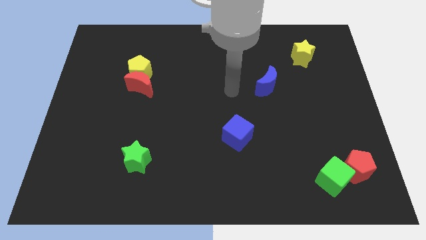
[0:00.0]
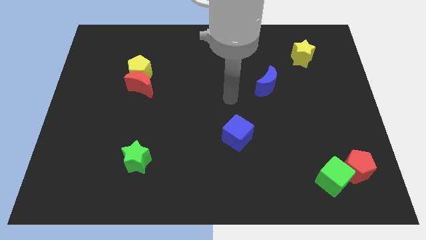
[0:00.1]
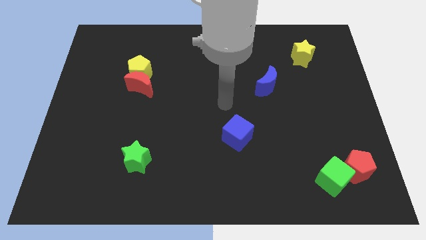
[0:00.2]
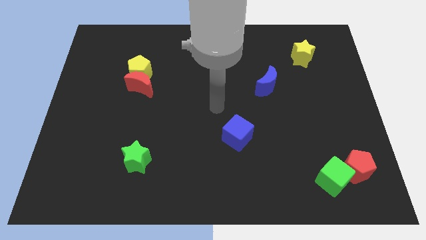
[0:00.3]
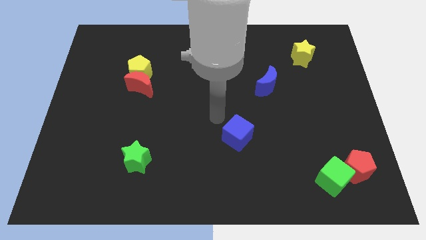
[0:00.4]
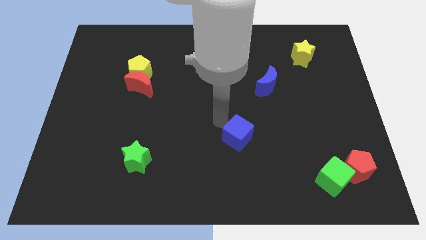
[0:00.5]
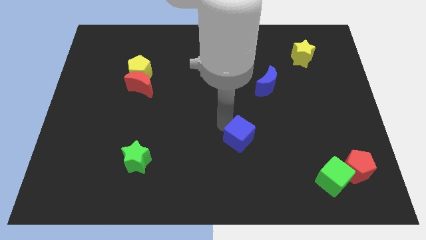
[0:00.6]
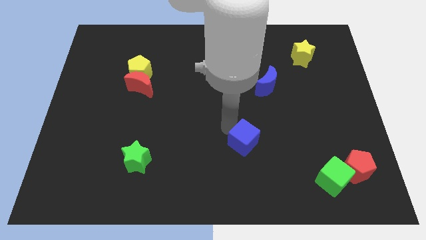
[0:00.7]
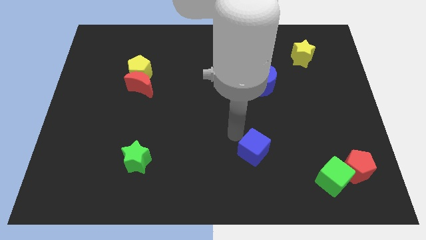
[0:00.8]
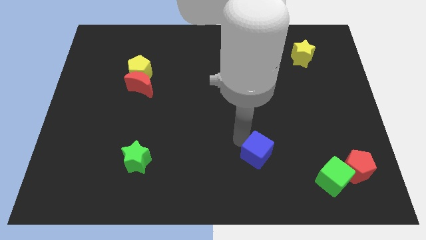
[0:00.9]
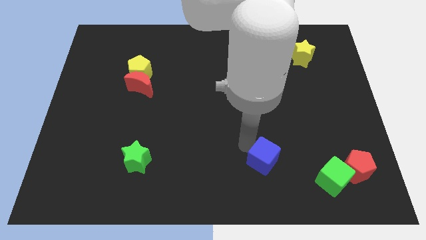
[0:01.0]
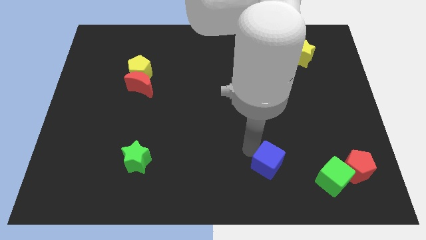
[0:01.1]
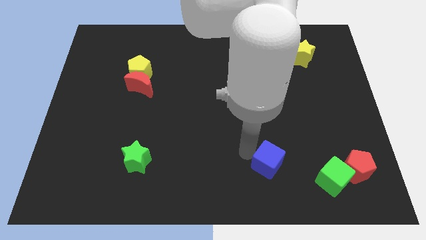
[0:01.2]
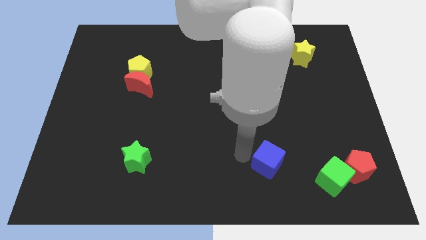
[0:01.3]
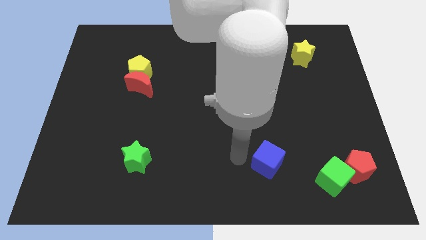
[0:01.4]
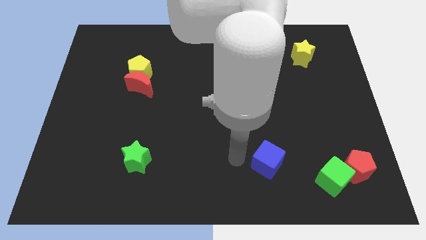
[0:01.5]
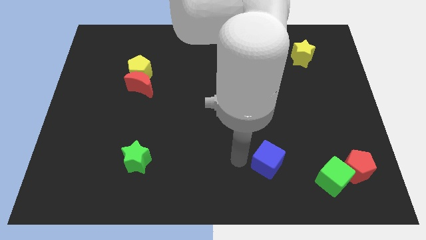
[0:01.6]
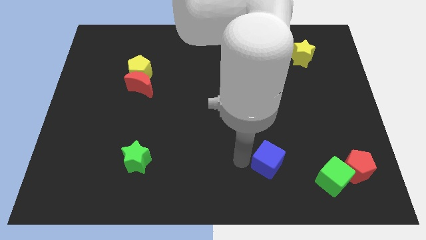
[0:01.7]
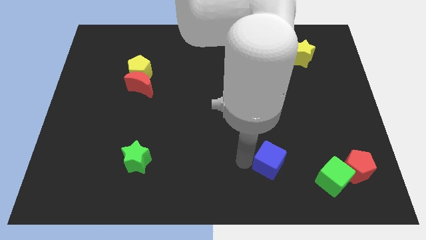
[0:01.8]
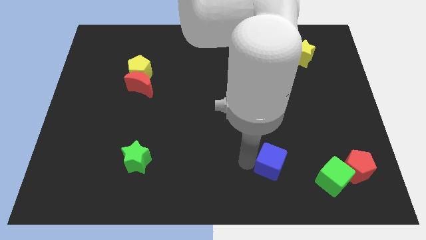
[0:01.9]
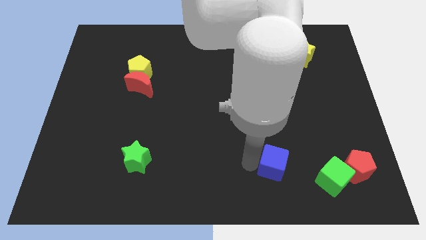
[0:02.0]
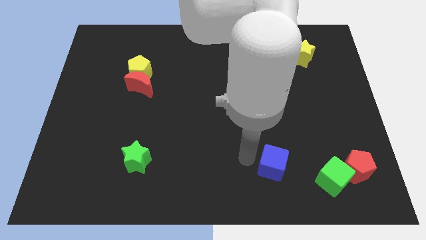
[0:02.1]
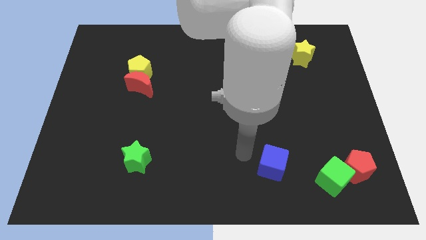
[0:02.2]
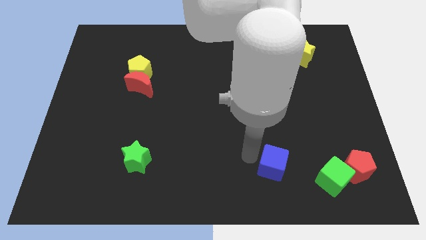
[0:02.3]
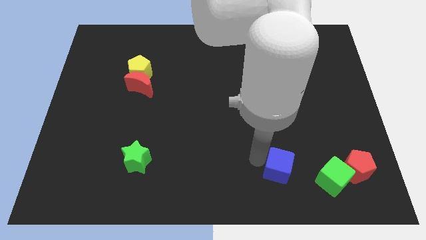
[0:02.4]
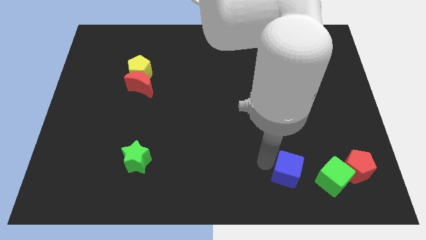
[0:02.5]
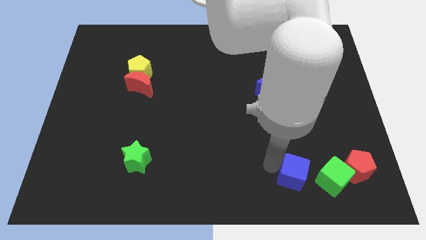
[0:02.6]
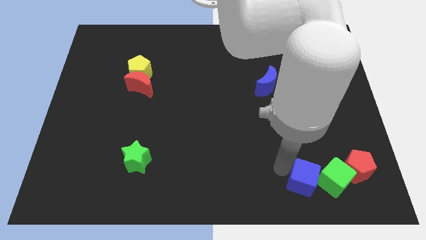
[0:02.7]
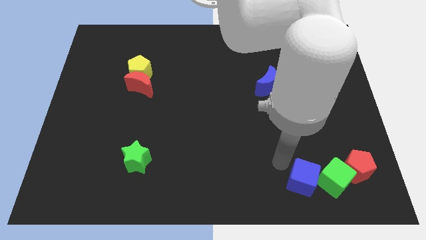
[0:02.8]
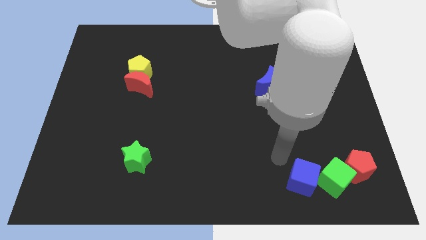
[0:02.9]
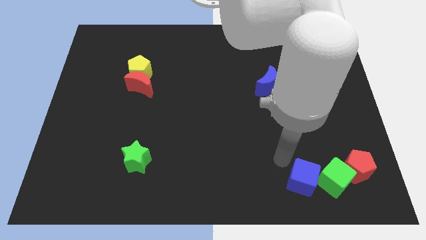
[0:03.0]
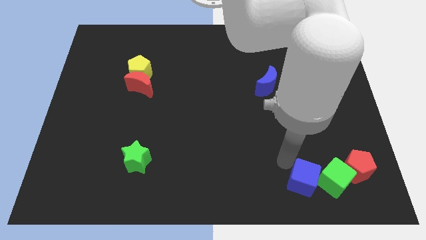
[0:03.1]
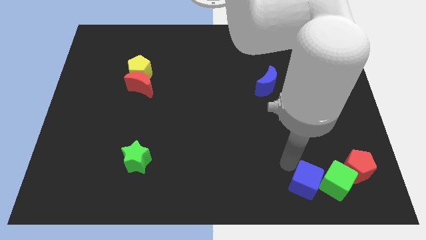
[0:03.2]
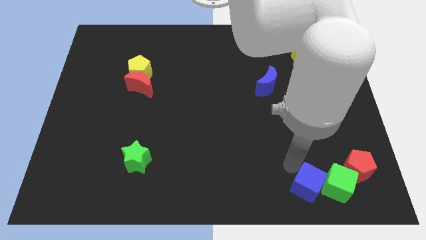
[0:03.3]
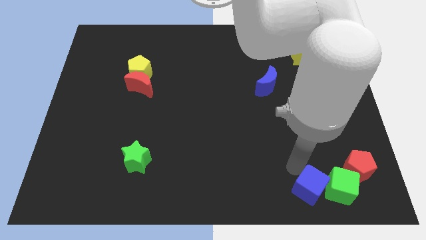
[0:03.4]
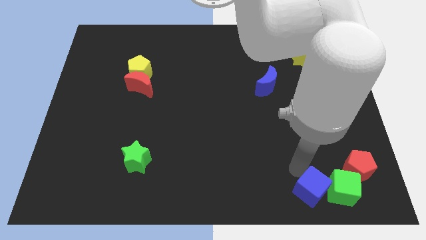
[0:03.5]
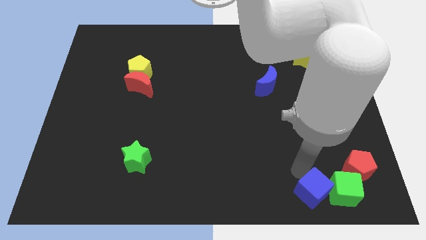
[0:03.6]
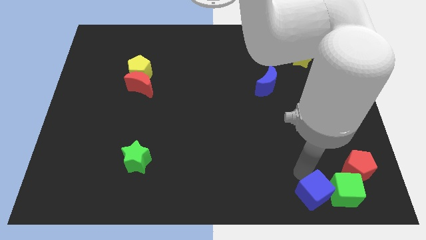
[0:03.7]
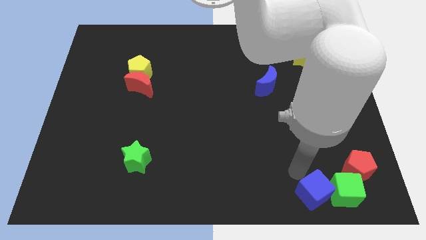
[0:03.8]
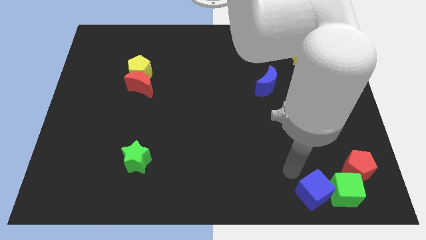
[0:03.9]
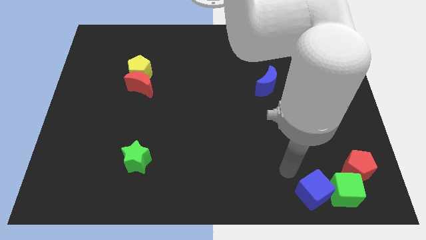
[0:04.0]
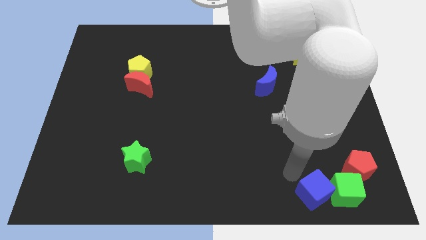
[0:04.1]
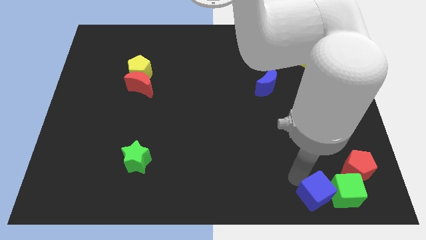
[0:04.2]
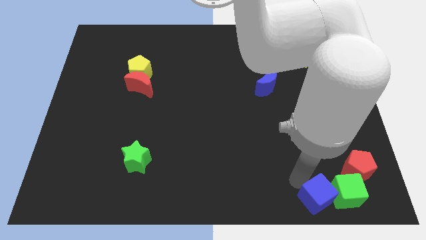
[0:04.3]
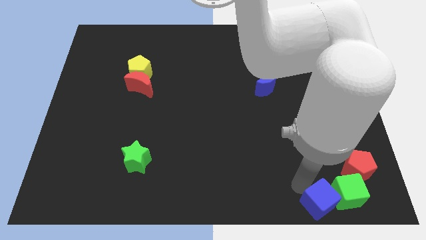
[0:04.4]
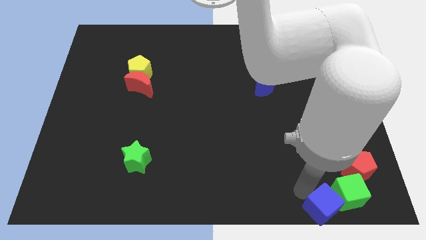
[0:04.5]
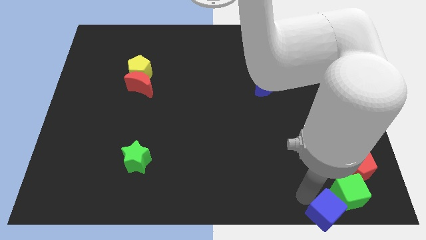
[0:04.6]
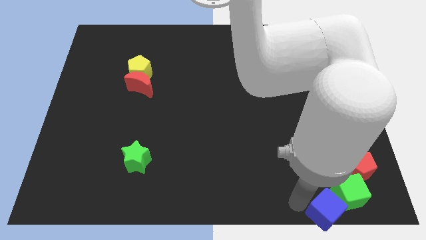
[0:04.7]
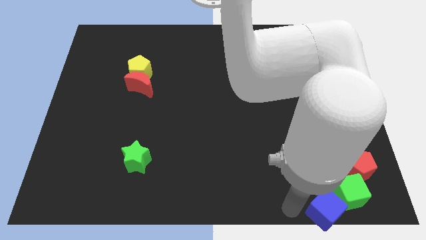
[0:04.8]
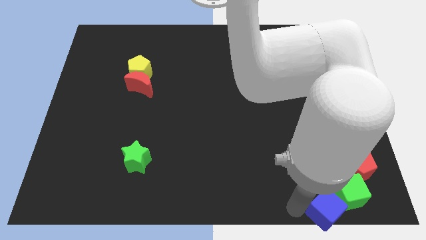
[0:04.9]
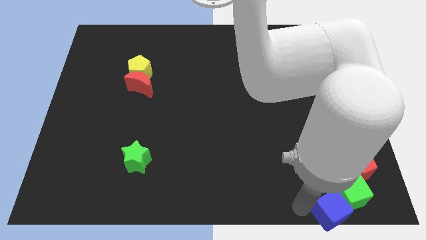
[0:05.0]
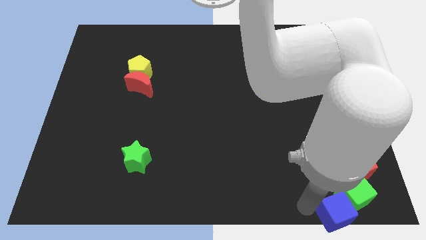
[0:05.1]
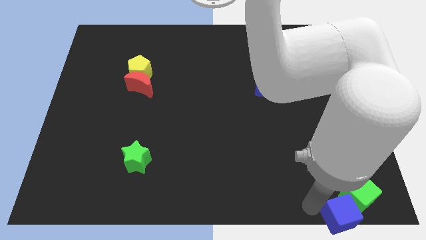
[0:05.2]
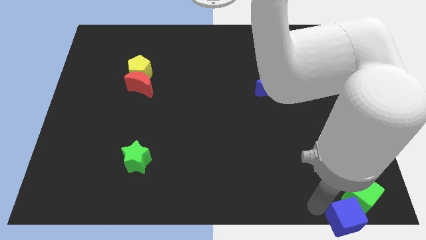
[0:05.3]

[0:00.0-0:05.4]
move the blue cube to the bottom right

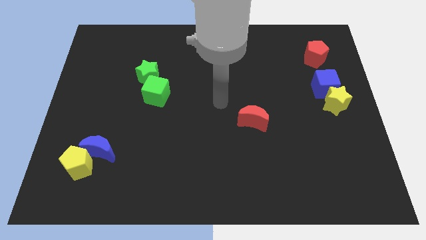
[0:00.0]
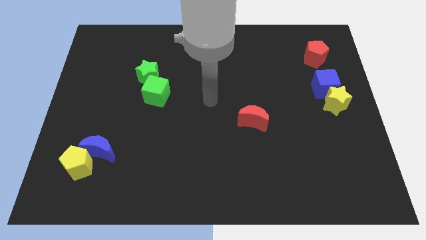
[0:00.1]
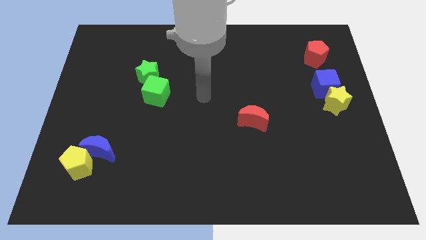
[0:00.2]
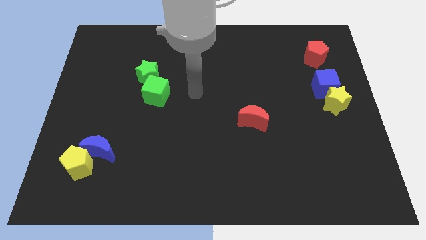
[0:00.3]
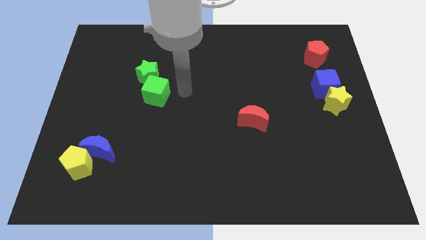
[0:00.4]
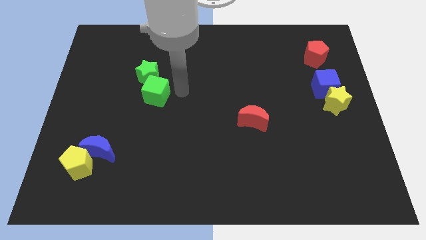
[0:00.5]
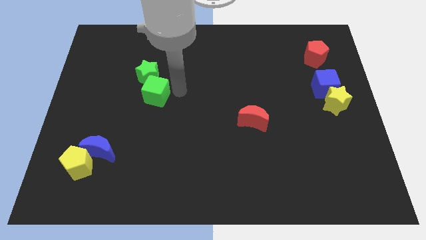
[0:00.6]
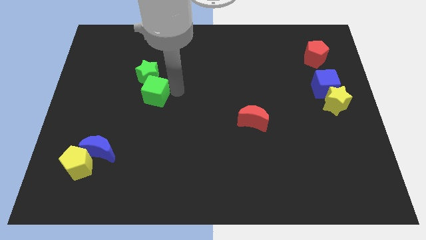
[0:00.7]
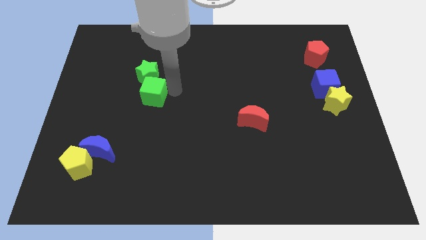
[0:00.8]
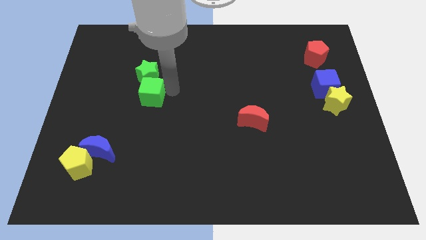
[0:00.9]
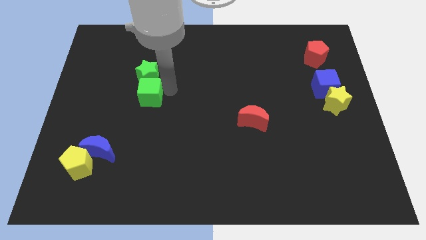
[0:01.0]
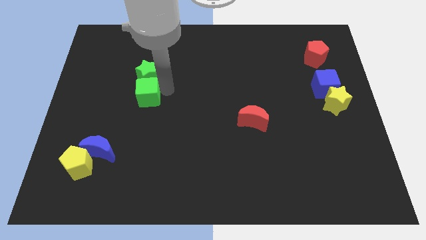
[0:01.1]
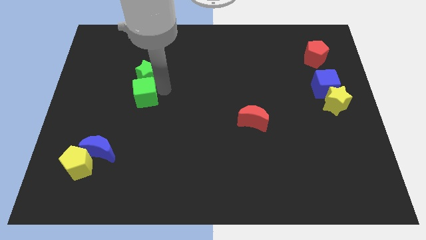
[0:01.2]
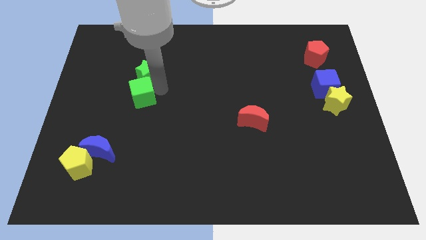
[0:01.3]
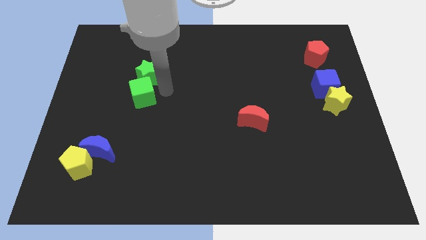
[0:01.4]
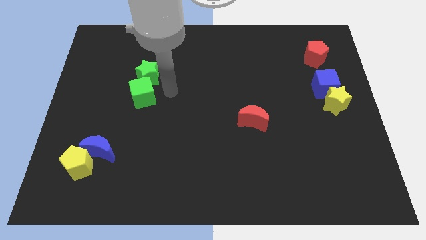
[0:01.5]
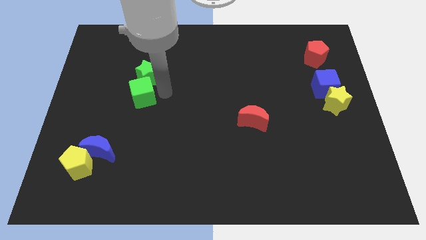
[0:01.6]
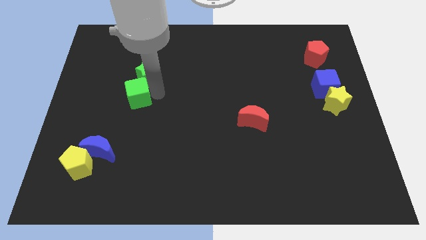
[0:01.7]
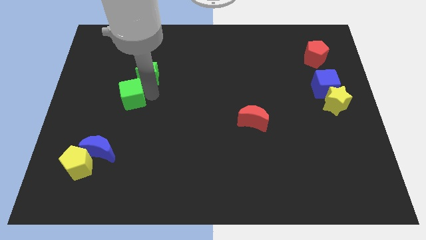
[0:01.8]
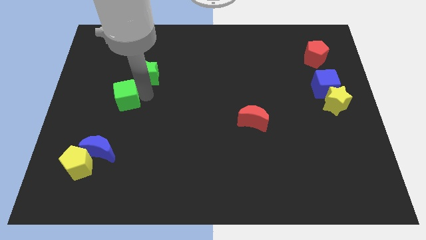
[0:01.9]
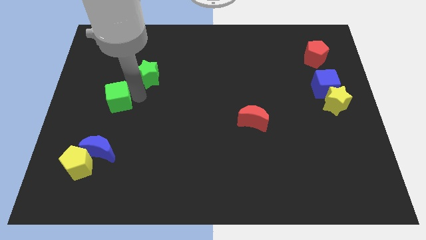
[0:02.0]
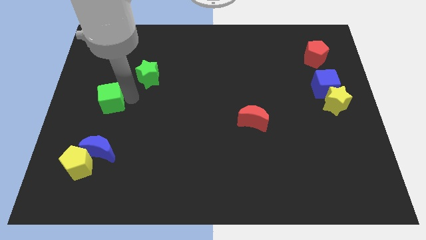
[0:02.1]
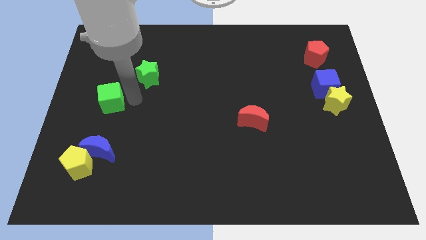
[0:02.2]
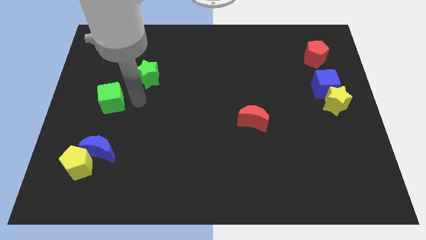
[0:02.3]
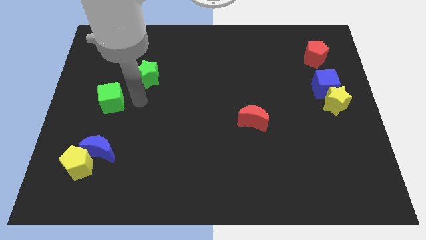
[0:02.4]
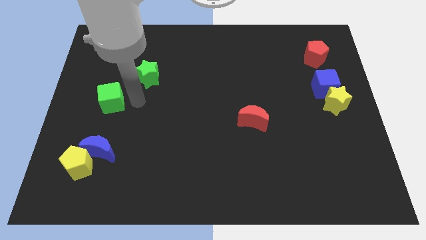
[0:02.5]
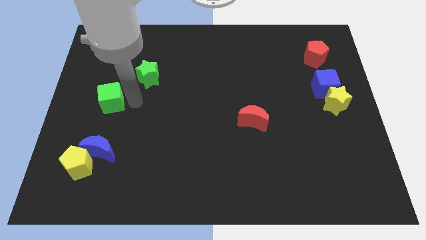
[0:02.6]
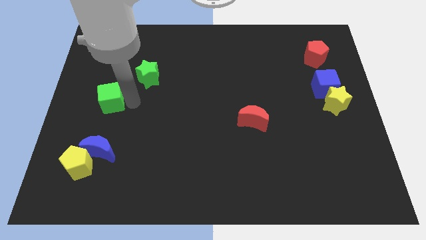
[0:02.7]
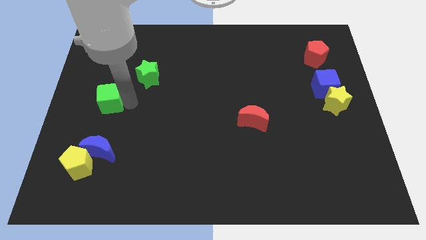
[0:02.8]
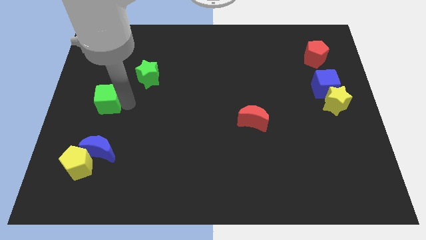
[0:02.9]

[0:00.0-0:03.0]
move the green cube to the left side of the board
